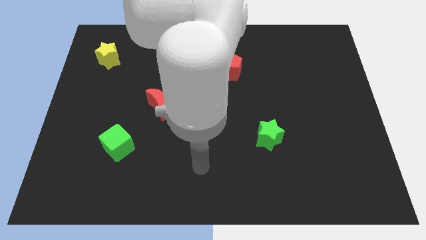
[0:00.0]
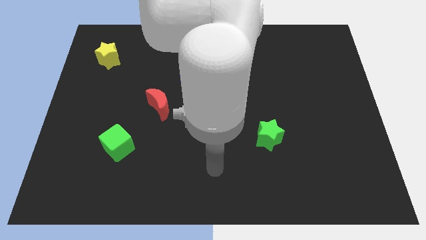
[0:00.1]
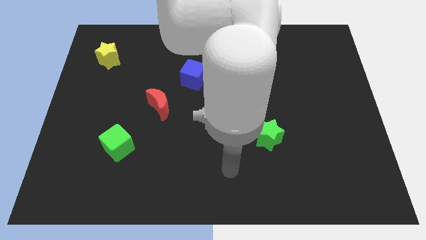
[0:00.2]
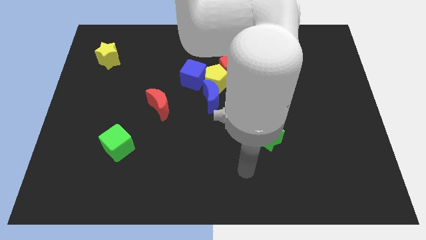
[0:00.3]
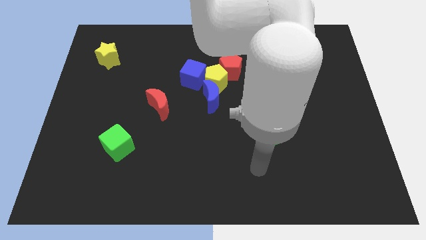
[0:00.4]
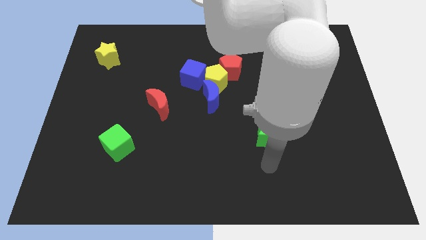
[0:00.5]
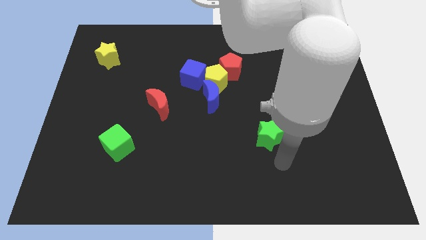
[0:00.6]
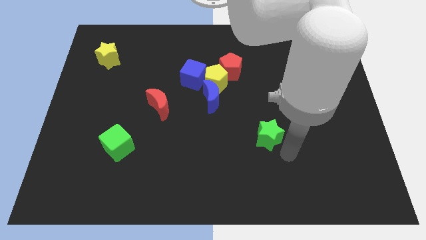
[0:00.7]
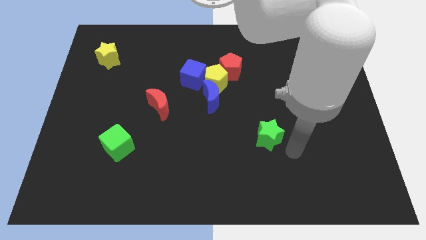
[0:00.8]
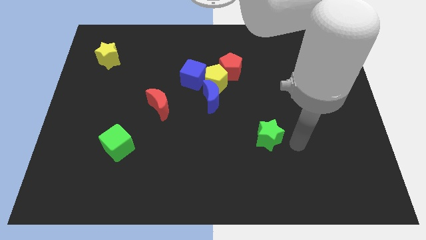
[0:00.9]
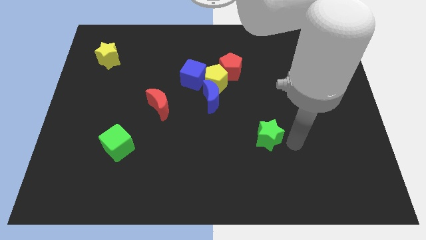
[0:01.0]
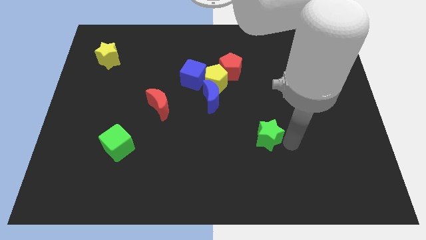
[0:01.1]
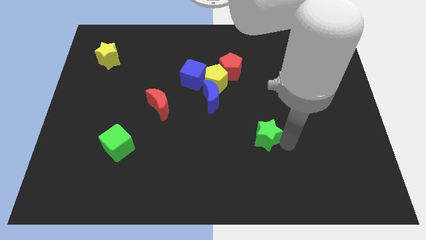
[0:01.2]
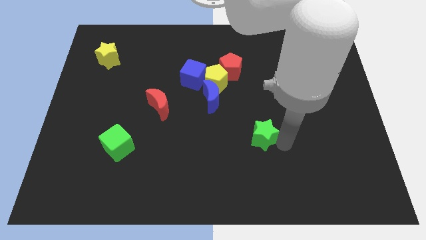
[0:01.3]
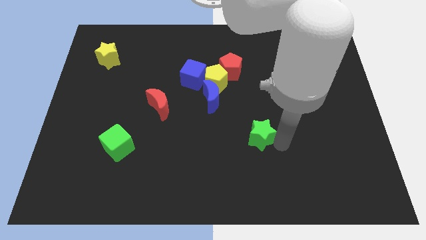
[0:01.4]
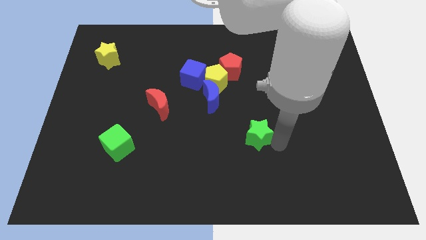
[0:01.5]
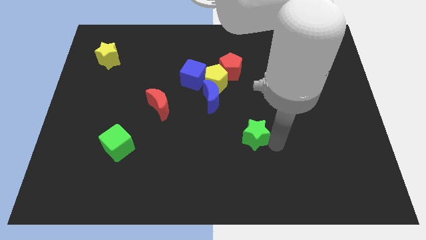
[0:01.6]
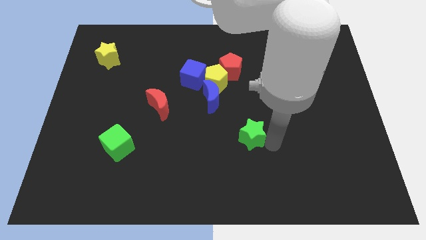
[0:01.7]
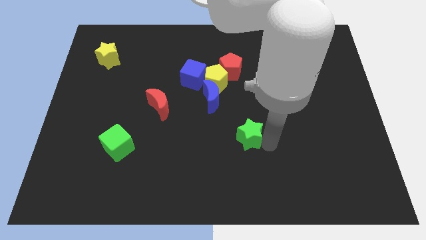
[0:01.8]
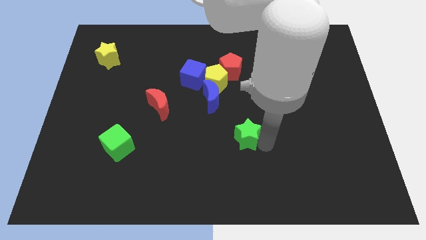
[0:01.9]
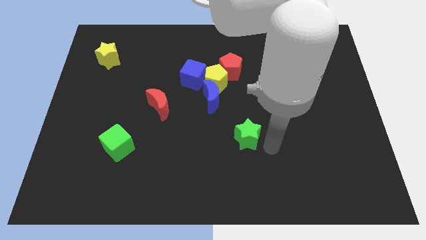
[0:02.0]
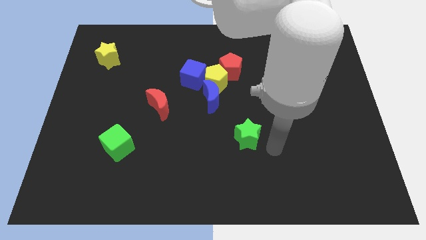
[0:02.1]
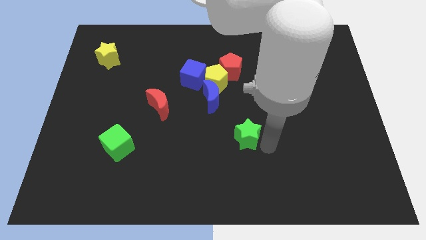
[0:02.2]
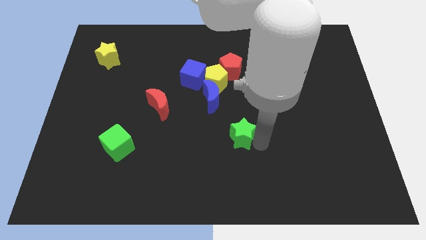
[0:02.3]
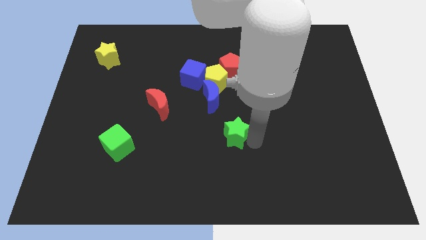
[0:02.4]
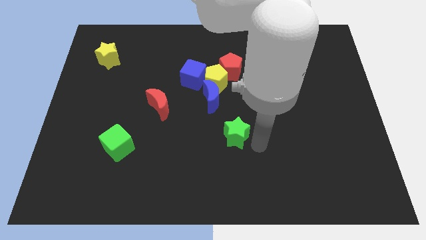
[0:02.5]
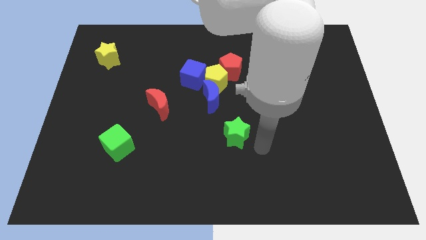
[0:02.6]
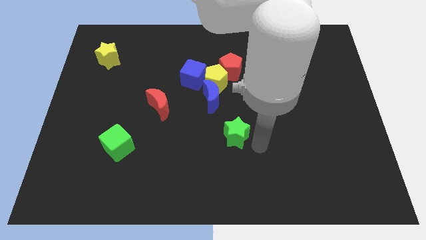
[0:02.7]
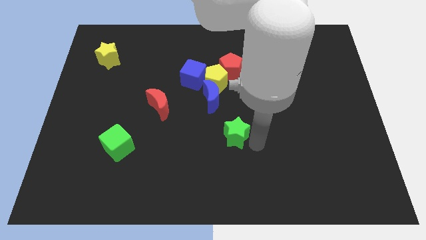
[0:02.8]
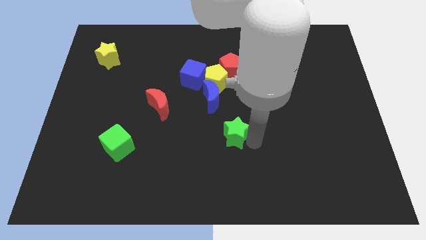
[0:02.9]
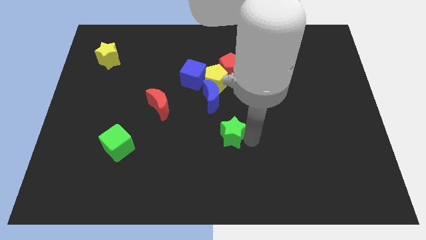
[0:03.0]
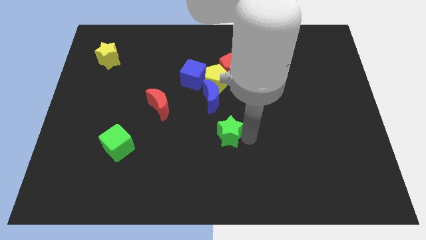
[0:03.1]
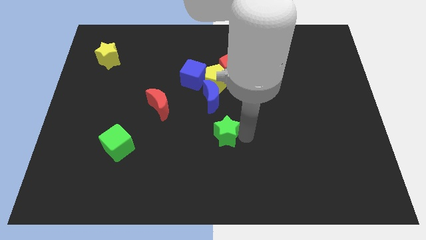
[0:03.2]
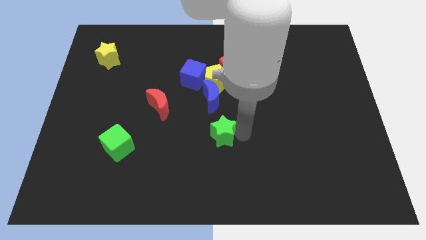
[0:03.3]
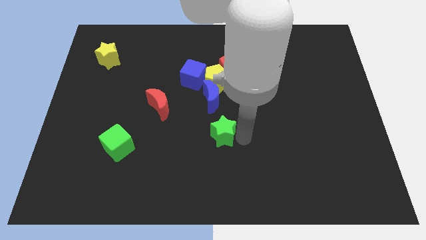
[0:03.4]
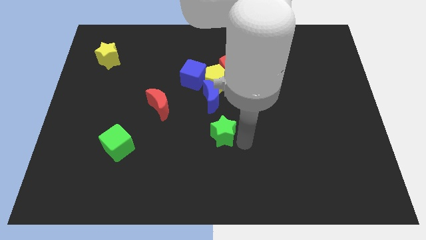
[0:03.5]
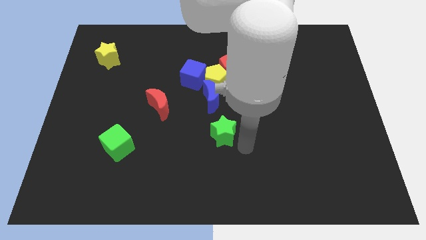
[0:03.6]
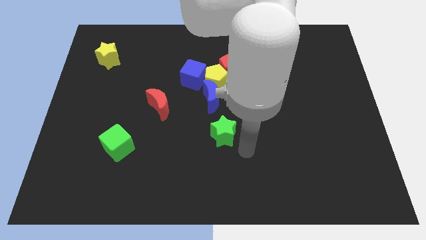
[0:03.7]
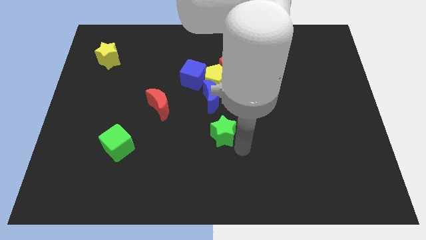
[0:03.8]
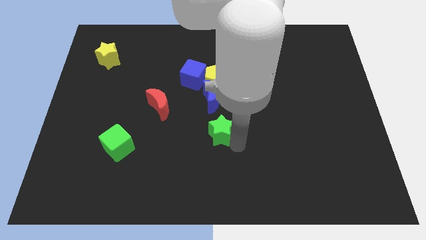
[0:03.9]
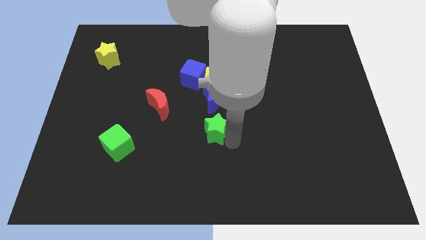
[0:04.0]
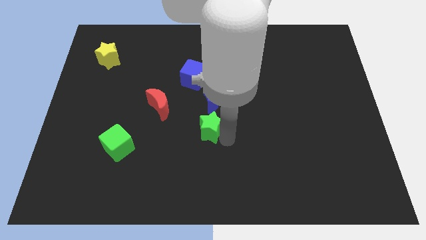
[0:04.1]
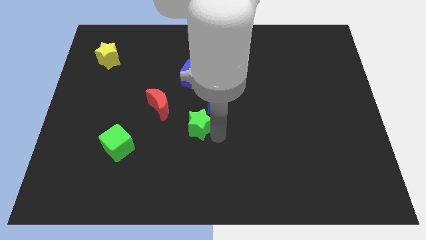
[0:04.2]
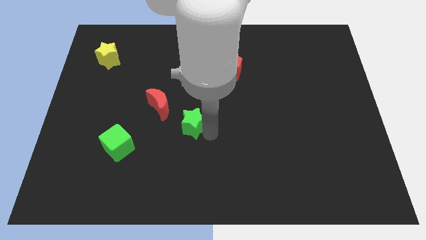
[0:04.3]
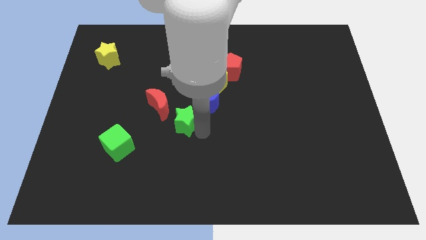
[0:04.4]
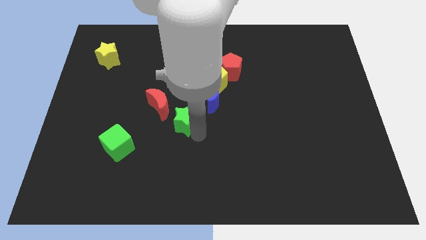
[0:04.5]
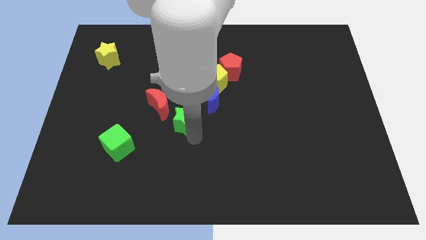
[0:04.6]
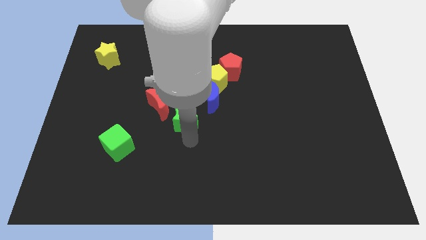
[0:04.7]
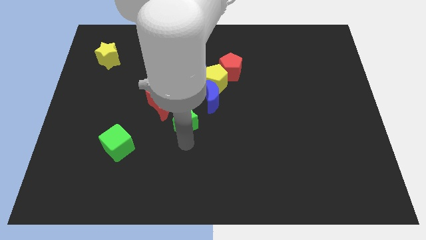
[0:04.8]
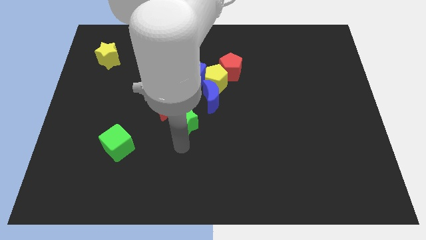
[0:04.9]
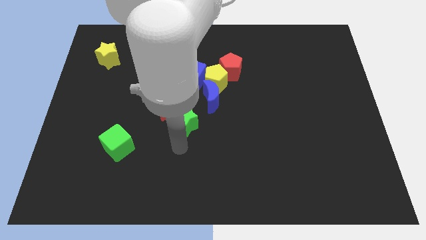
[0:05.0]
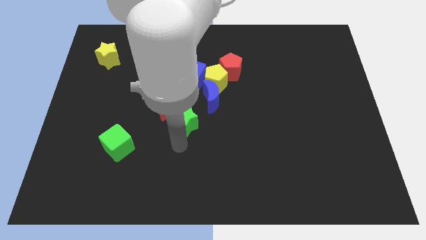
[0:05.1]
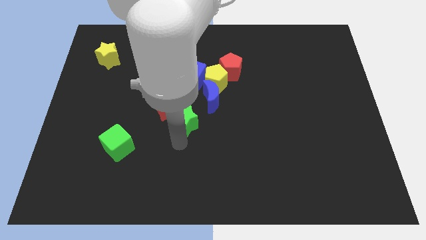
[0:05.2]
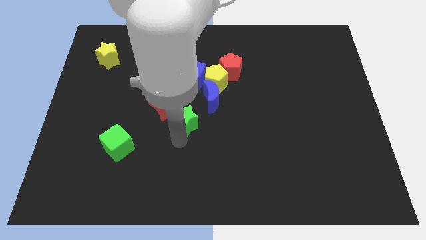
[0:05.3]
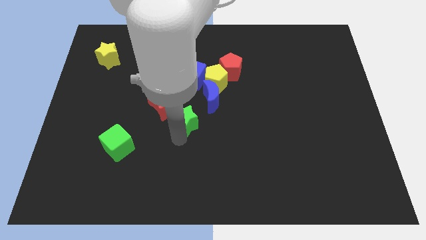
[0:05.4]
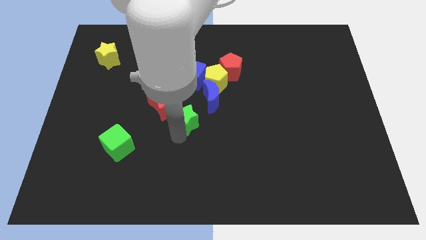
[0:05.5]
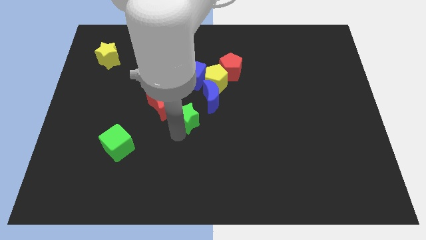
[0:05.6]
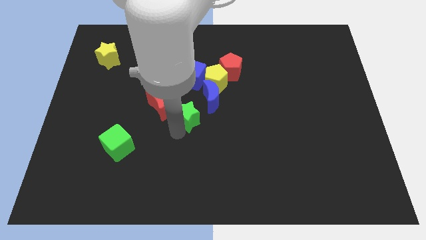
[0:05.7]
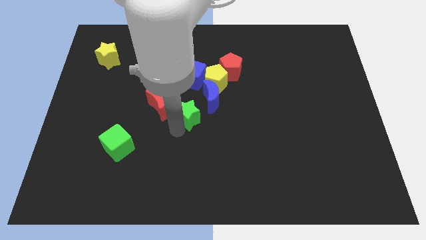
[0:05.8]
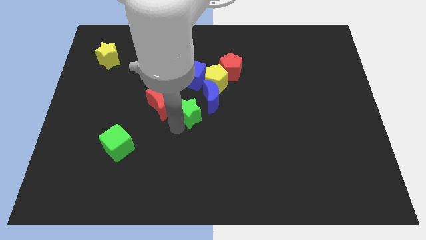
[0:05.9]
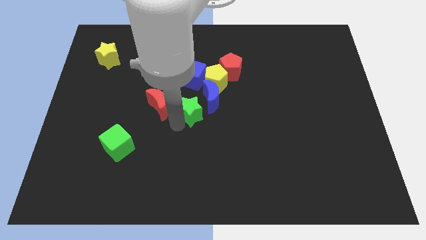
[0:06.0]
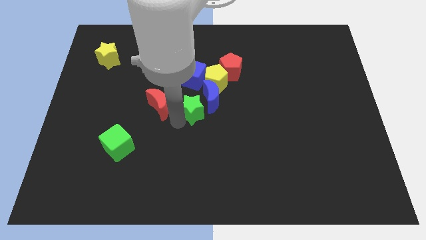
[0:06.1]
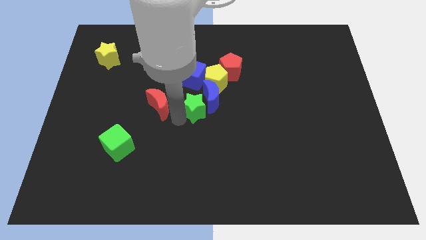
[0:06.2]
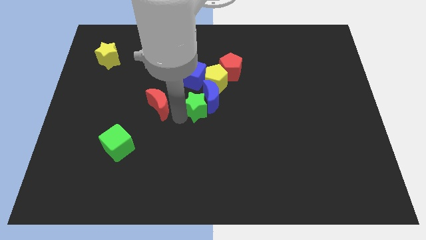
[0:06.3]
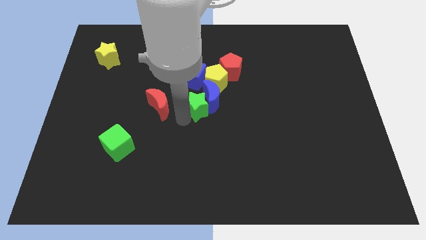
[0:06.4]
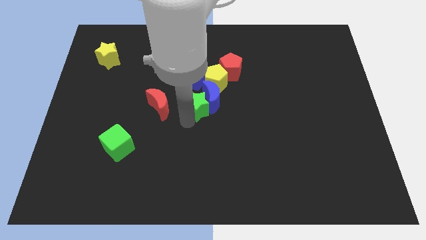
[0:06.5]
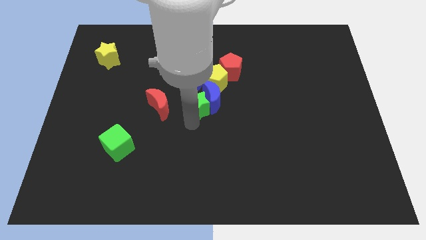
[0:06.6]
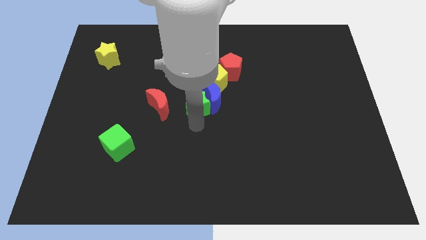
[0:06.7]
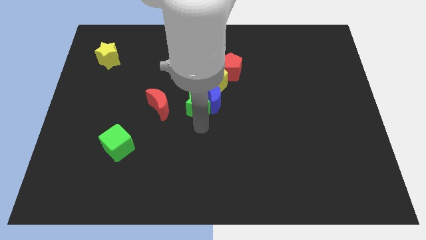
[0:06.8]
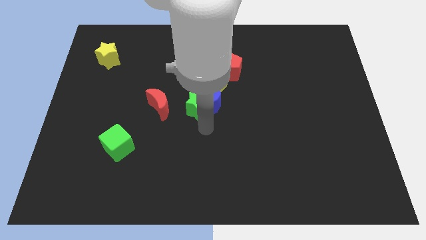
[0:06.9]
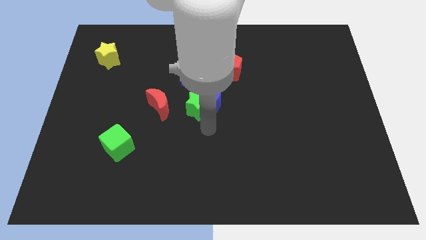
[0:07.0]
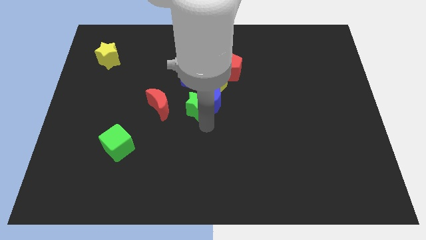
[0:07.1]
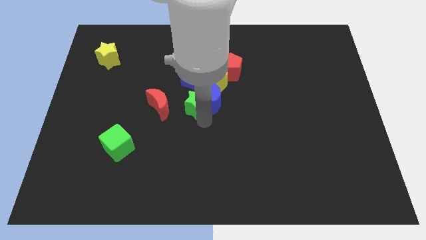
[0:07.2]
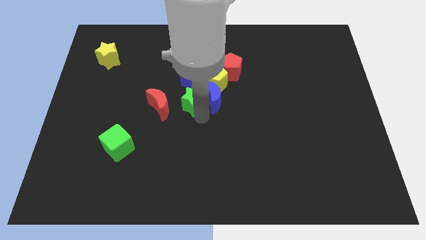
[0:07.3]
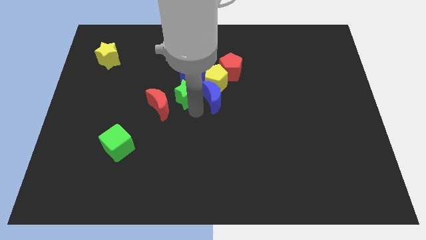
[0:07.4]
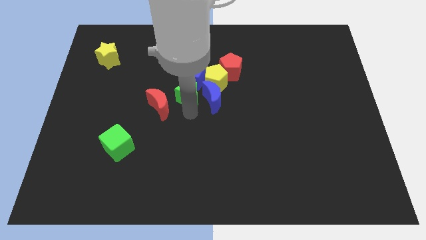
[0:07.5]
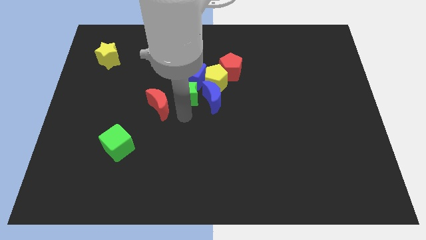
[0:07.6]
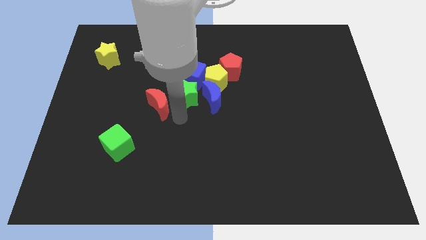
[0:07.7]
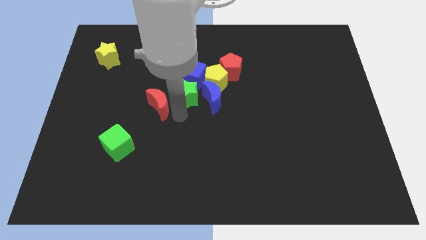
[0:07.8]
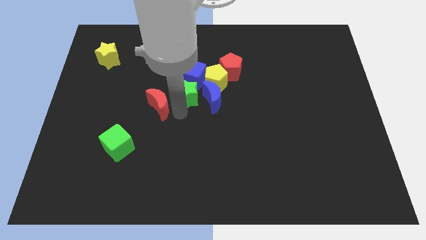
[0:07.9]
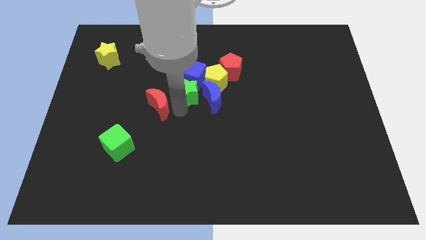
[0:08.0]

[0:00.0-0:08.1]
push the green star next to the blue cube
